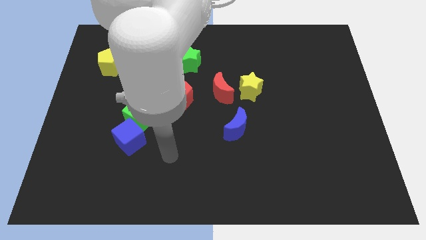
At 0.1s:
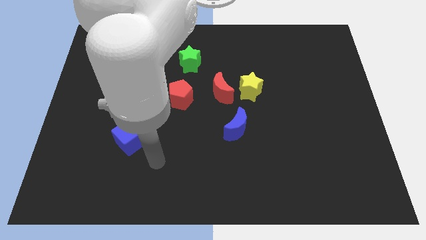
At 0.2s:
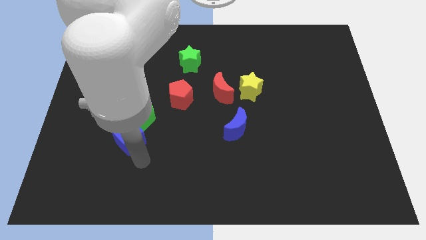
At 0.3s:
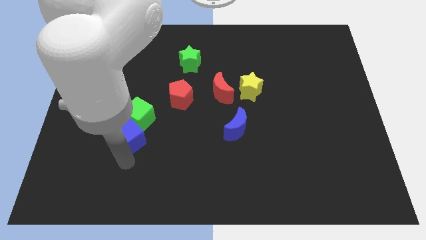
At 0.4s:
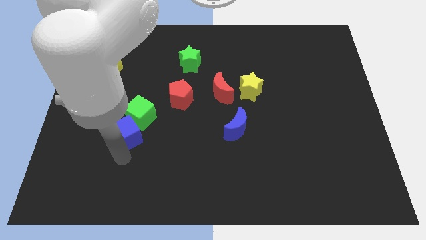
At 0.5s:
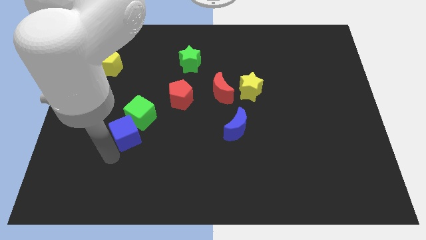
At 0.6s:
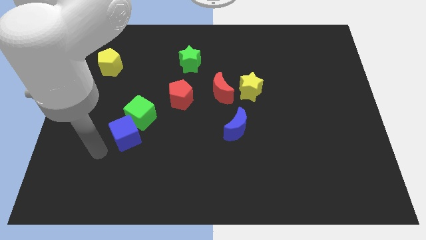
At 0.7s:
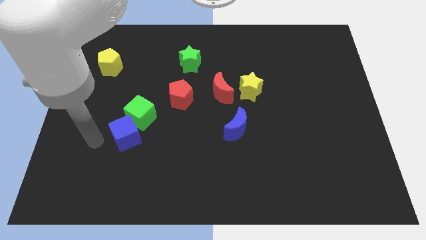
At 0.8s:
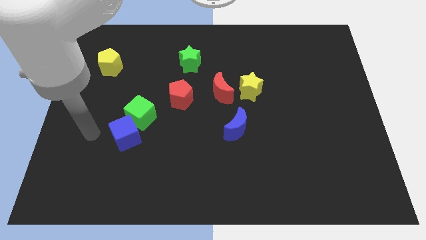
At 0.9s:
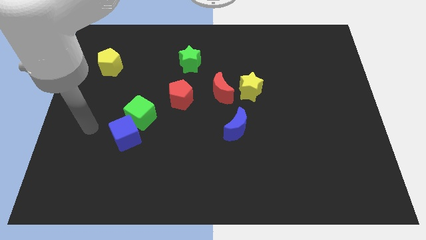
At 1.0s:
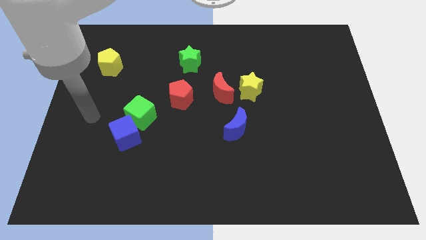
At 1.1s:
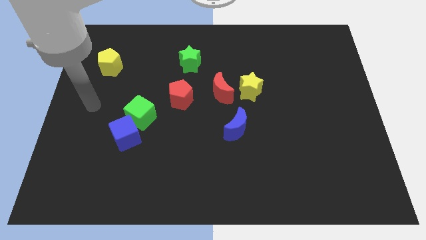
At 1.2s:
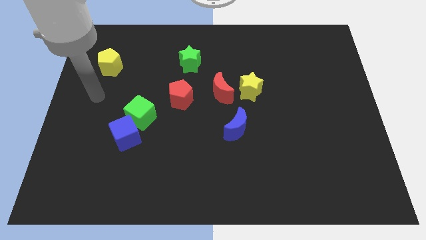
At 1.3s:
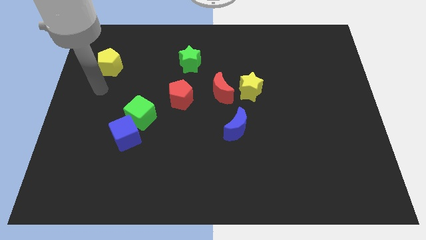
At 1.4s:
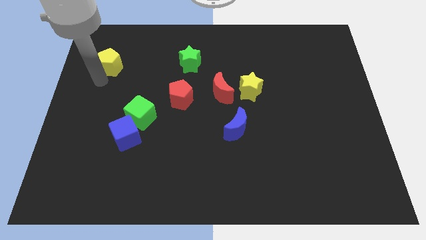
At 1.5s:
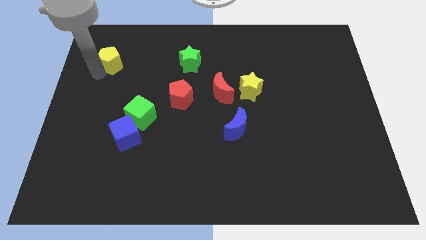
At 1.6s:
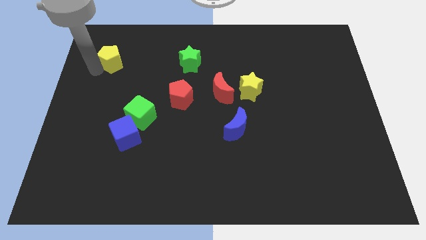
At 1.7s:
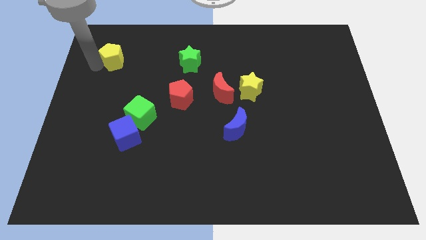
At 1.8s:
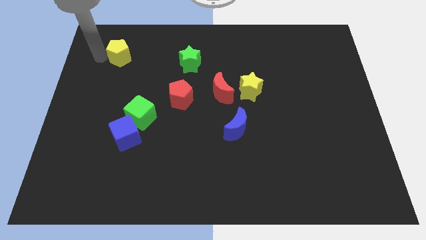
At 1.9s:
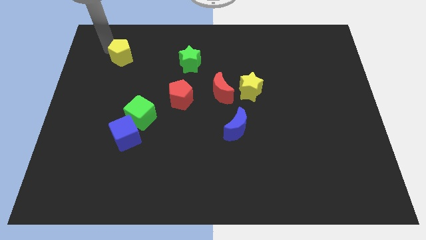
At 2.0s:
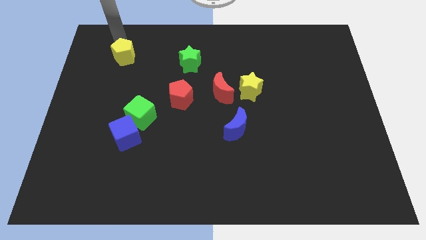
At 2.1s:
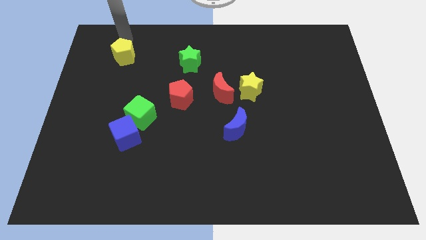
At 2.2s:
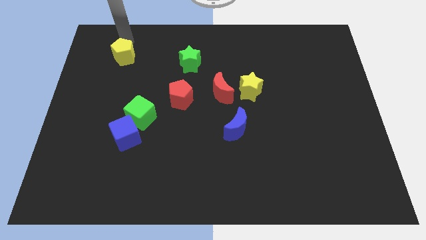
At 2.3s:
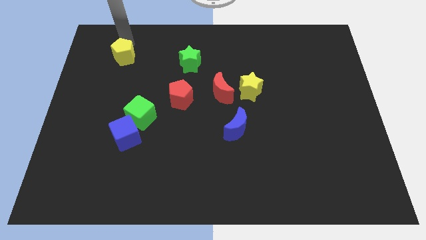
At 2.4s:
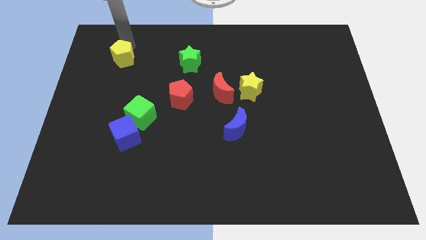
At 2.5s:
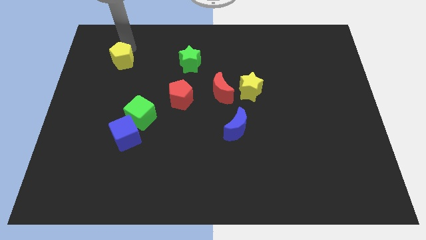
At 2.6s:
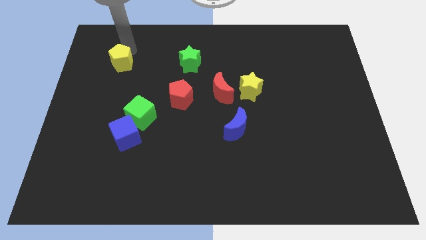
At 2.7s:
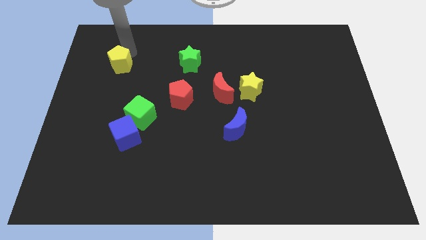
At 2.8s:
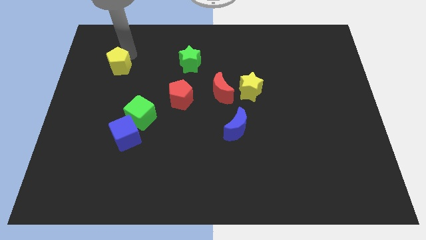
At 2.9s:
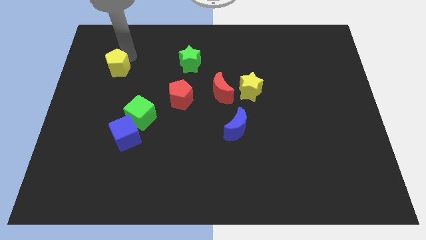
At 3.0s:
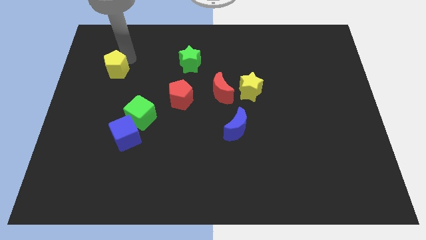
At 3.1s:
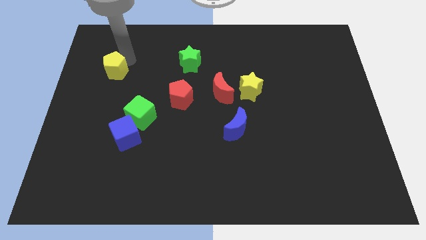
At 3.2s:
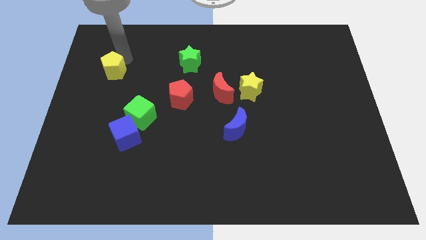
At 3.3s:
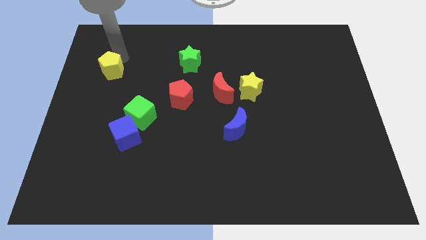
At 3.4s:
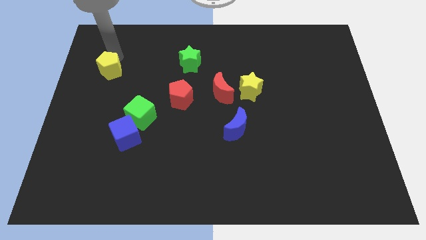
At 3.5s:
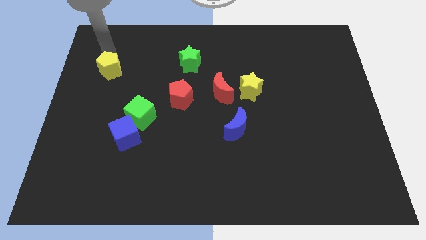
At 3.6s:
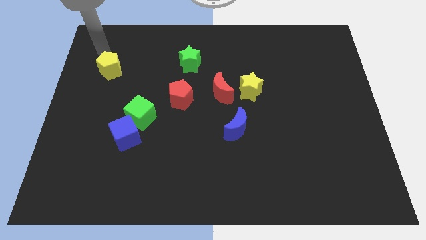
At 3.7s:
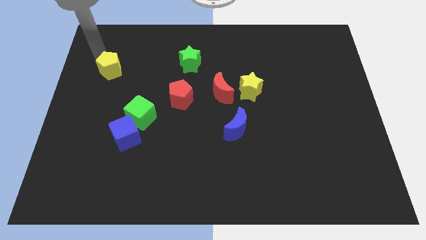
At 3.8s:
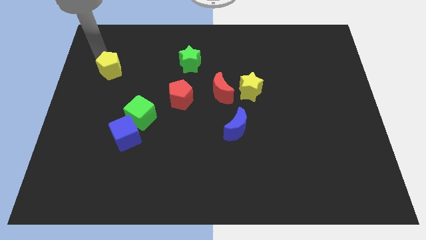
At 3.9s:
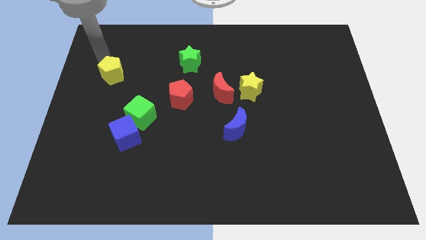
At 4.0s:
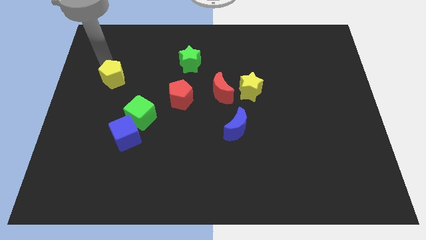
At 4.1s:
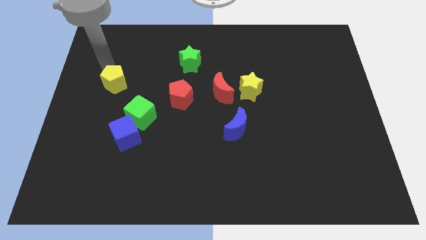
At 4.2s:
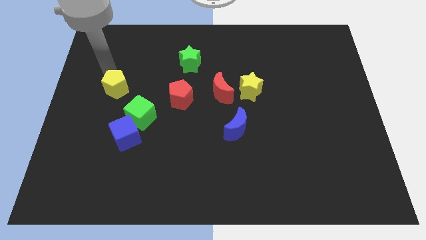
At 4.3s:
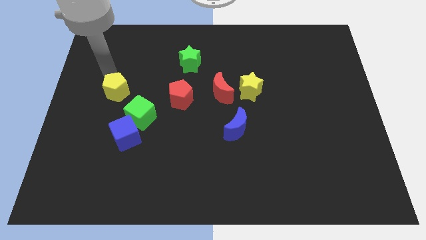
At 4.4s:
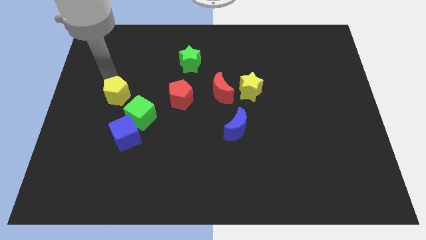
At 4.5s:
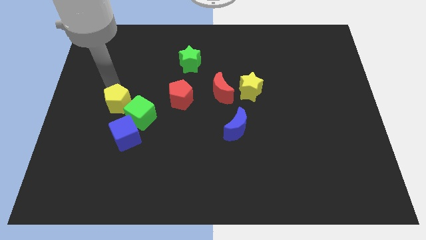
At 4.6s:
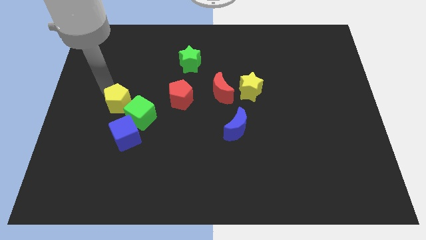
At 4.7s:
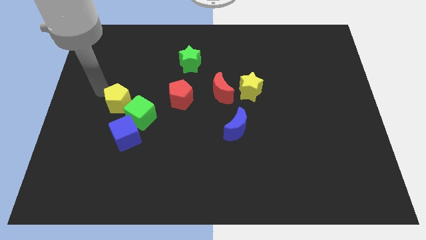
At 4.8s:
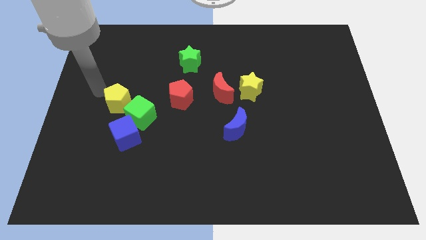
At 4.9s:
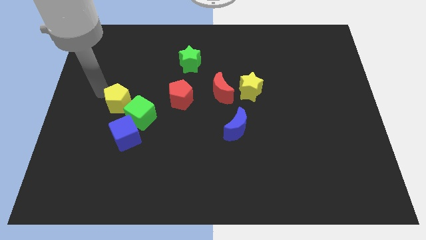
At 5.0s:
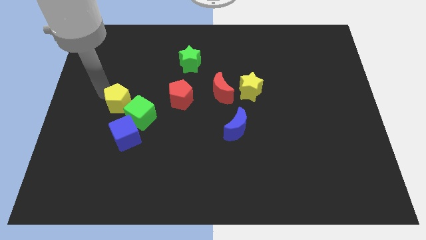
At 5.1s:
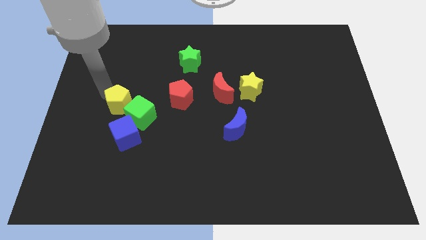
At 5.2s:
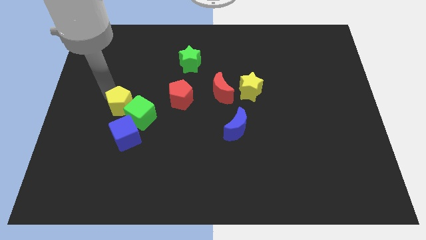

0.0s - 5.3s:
put the yellow pentagon close to the green cube

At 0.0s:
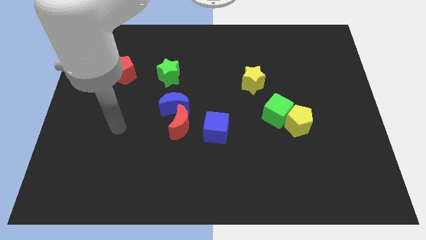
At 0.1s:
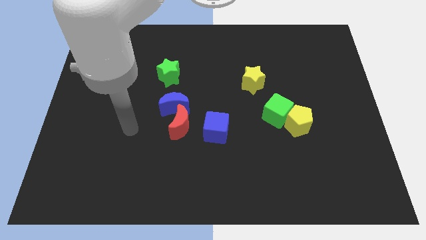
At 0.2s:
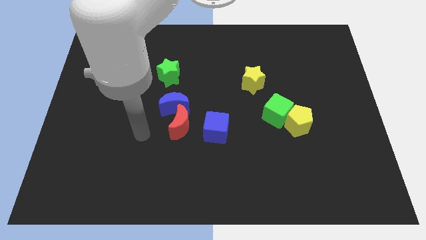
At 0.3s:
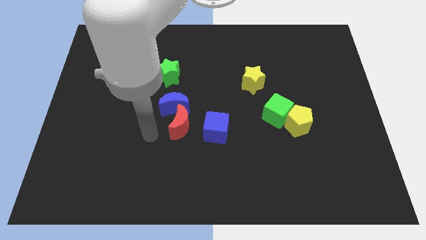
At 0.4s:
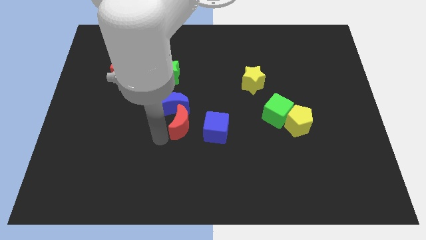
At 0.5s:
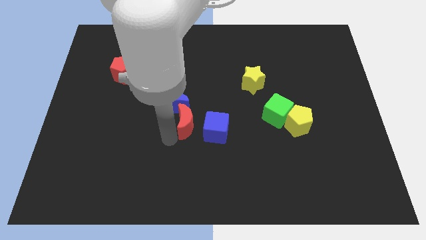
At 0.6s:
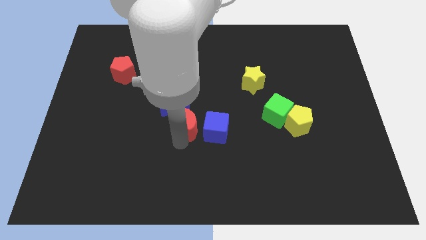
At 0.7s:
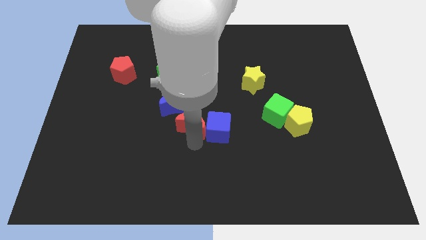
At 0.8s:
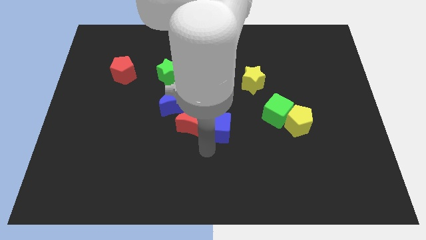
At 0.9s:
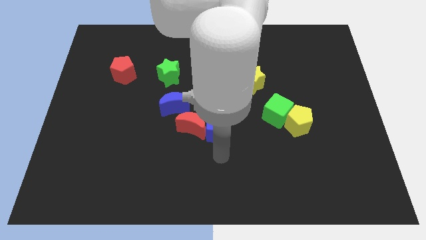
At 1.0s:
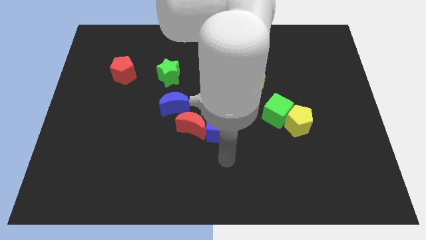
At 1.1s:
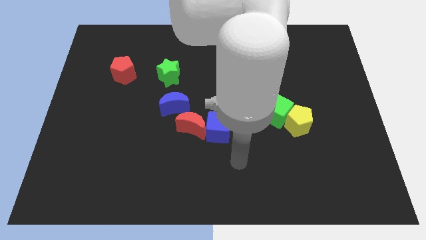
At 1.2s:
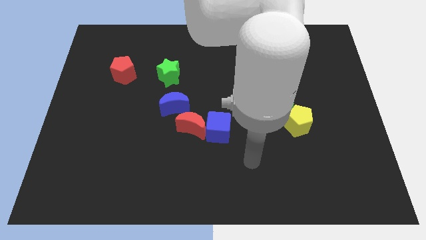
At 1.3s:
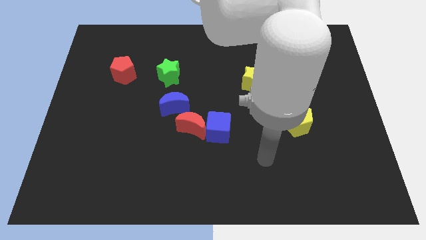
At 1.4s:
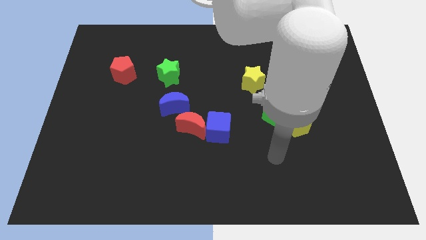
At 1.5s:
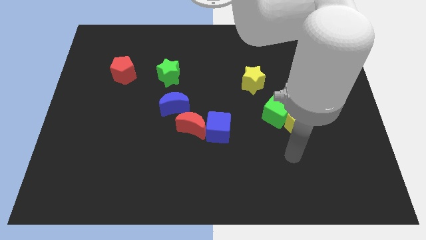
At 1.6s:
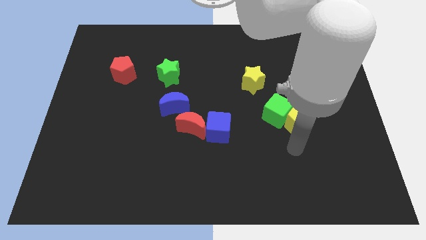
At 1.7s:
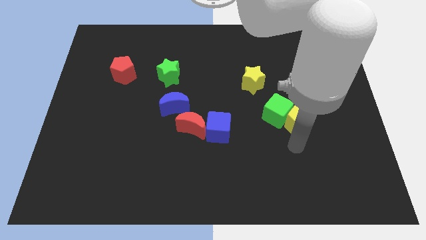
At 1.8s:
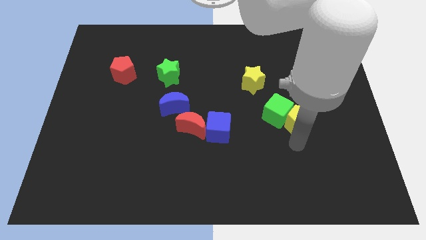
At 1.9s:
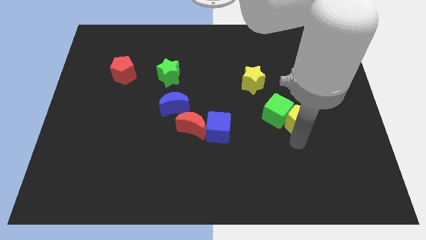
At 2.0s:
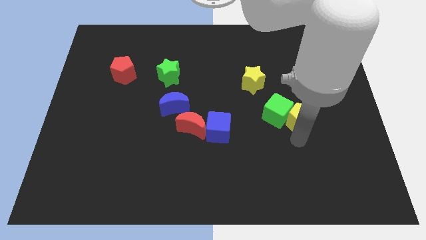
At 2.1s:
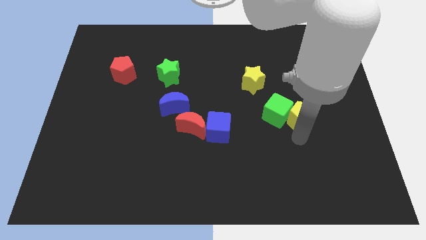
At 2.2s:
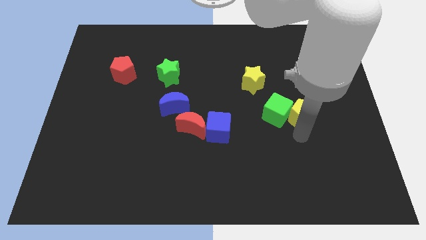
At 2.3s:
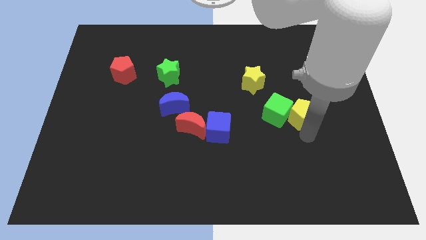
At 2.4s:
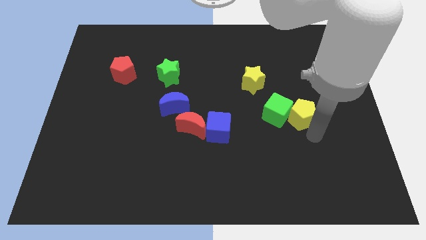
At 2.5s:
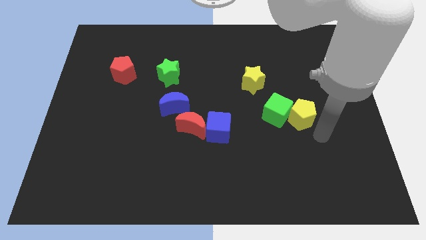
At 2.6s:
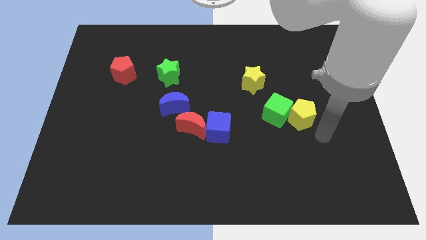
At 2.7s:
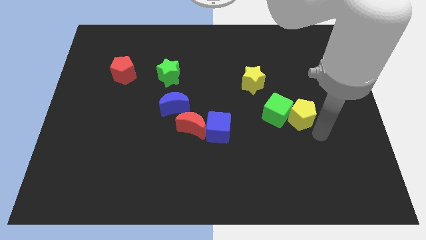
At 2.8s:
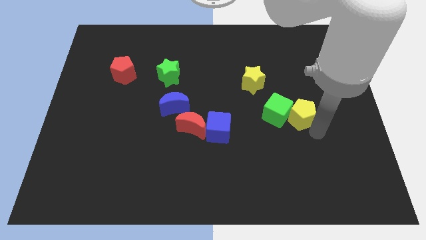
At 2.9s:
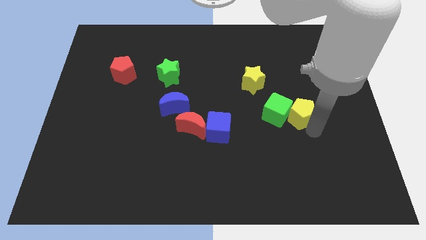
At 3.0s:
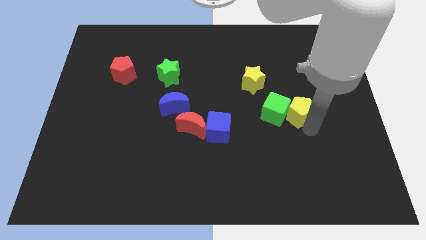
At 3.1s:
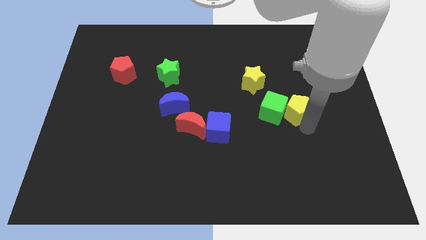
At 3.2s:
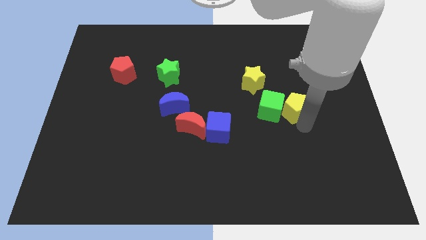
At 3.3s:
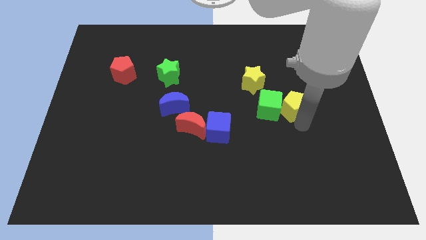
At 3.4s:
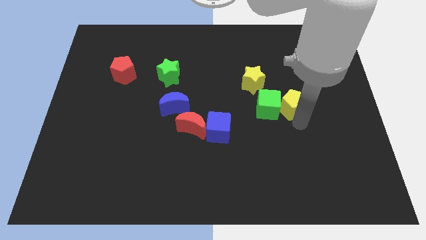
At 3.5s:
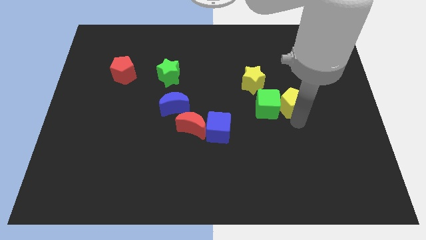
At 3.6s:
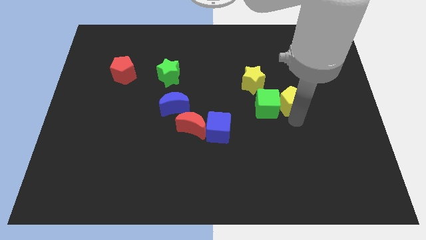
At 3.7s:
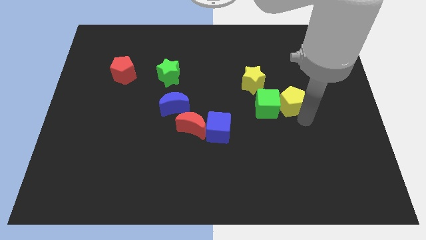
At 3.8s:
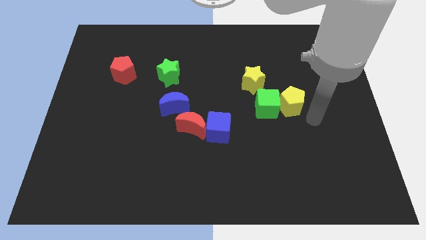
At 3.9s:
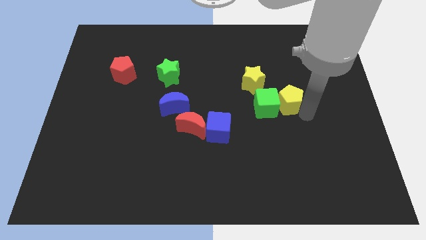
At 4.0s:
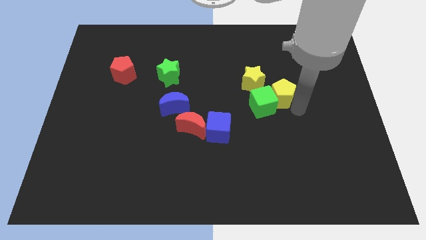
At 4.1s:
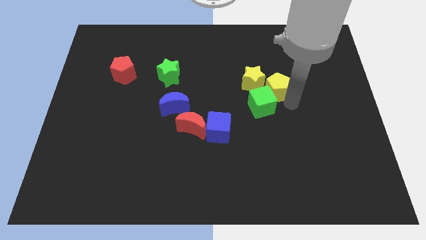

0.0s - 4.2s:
push the yellow pentagon towards the yellow star
